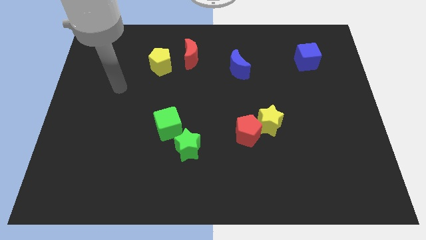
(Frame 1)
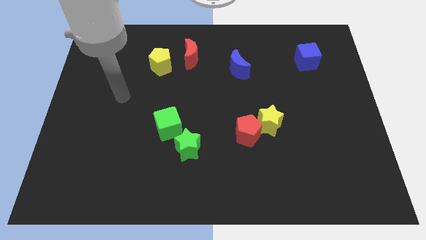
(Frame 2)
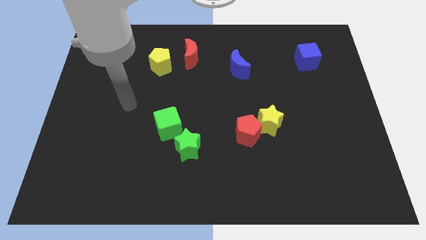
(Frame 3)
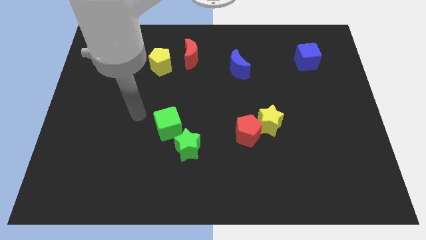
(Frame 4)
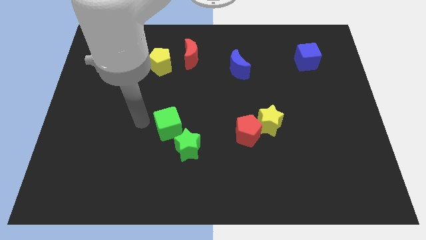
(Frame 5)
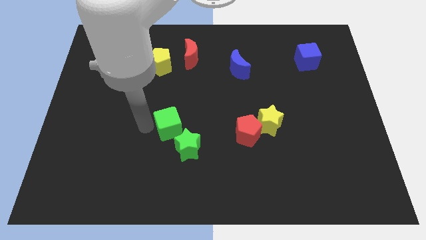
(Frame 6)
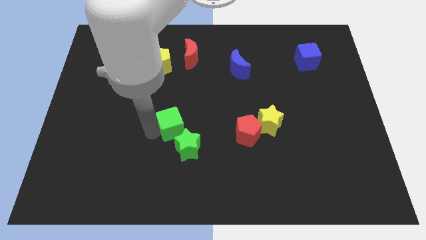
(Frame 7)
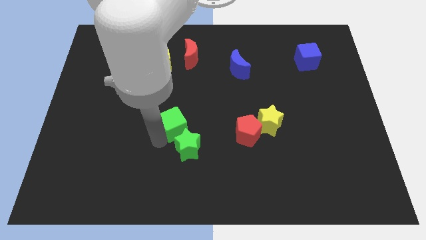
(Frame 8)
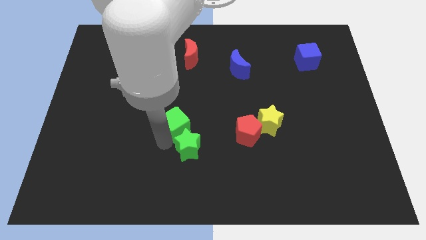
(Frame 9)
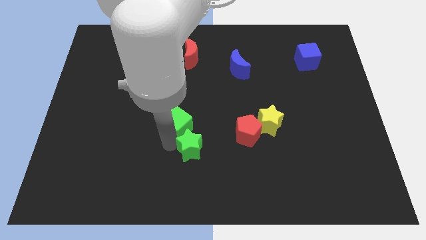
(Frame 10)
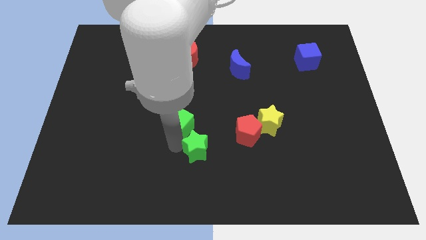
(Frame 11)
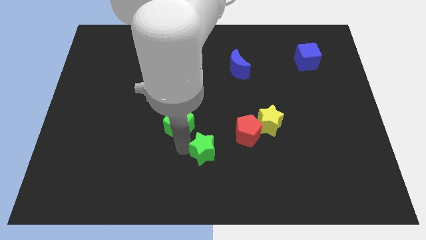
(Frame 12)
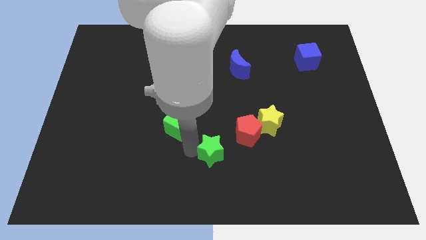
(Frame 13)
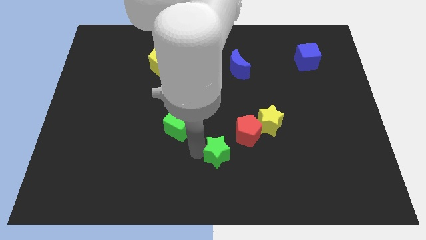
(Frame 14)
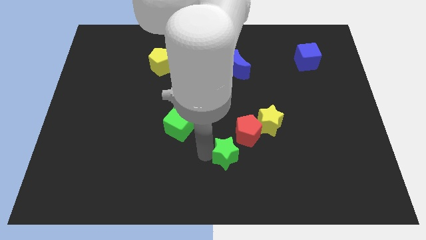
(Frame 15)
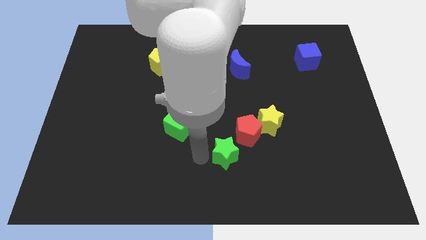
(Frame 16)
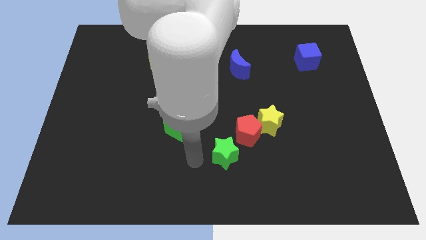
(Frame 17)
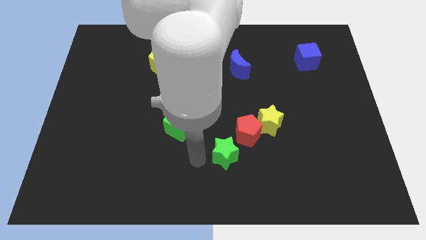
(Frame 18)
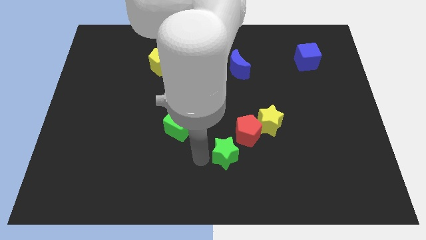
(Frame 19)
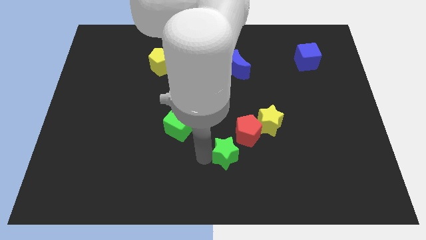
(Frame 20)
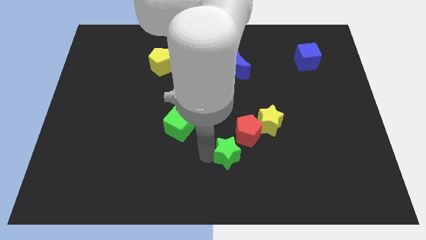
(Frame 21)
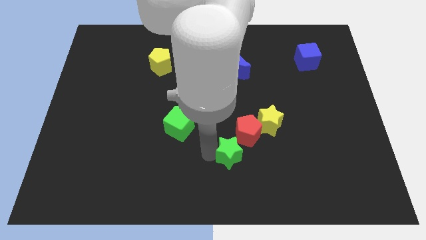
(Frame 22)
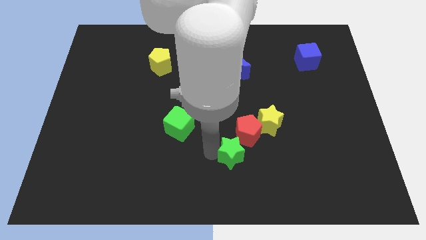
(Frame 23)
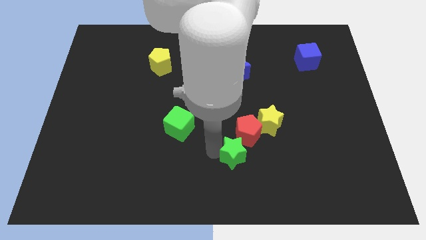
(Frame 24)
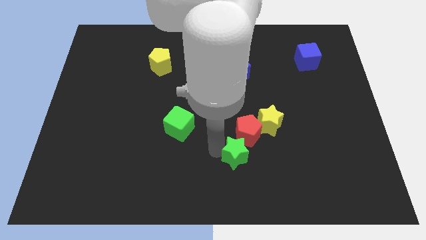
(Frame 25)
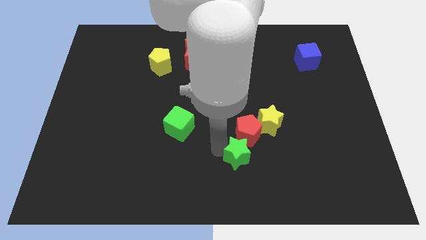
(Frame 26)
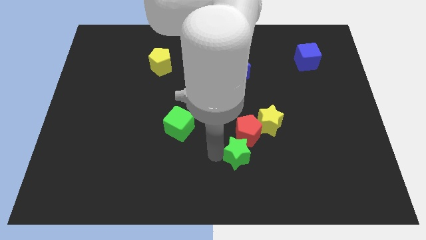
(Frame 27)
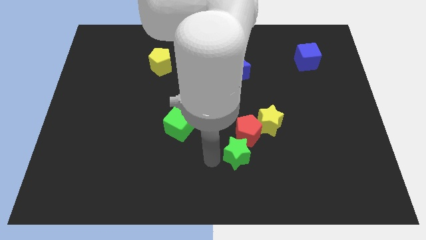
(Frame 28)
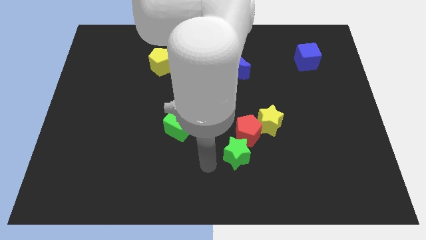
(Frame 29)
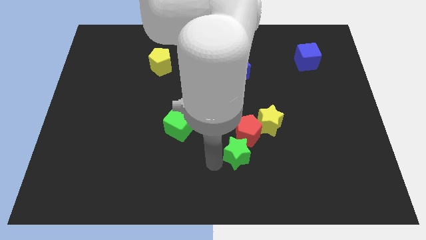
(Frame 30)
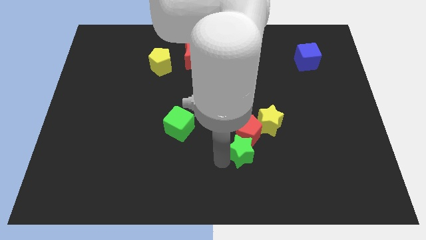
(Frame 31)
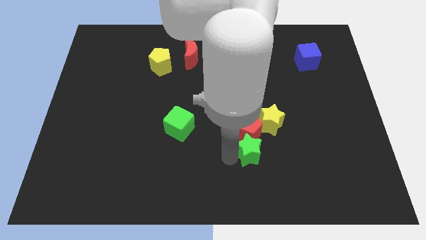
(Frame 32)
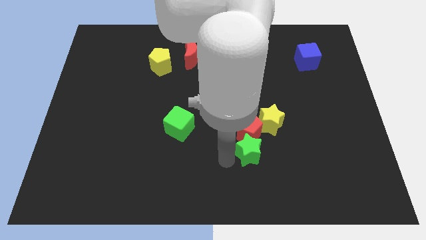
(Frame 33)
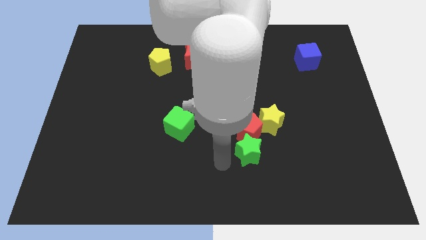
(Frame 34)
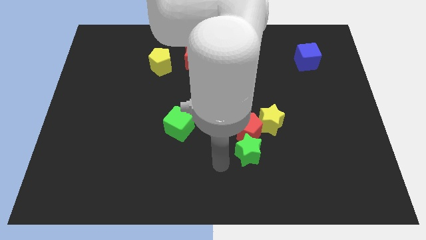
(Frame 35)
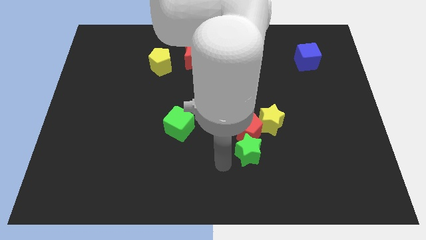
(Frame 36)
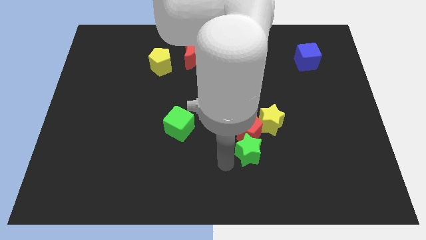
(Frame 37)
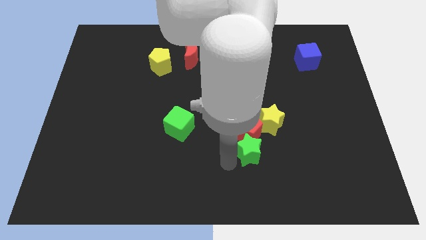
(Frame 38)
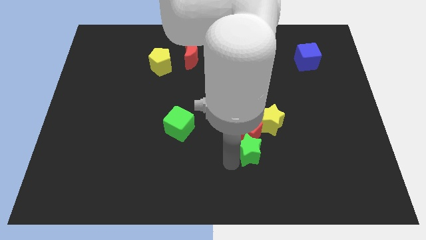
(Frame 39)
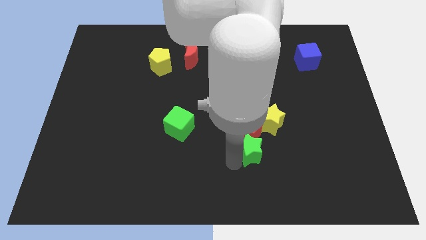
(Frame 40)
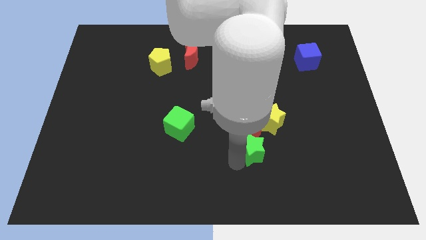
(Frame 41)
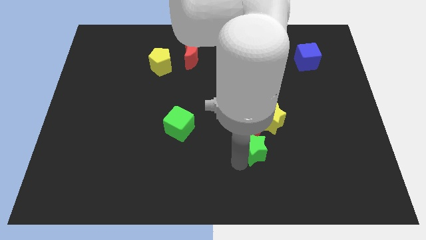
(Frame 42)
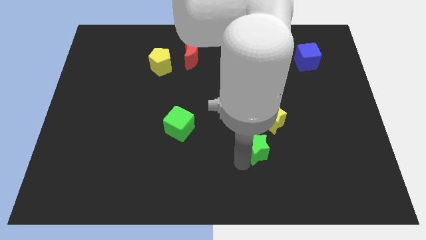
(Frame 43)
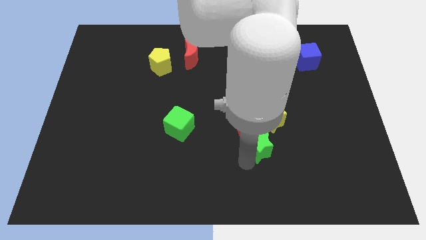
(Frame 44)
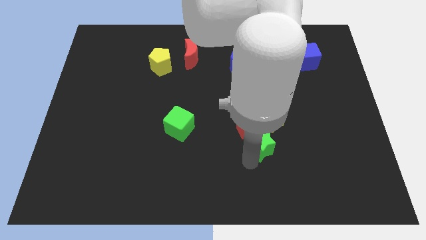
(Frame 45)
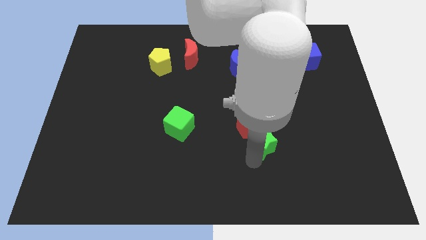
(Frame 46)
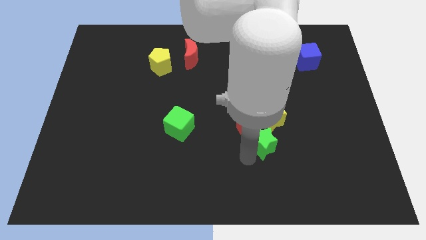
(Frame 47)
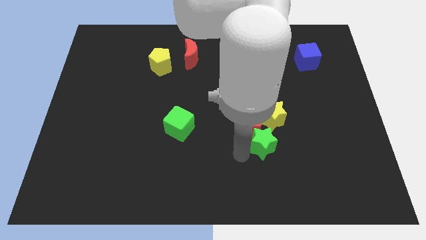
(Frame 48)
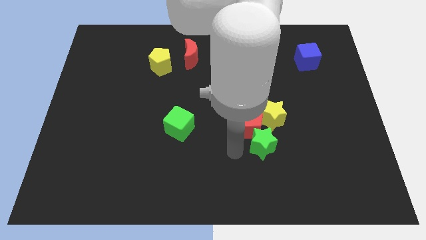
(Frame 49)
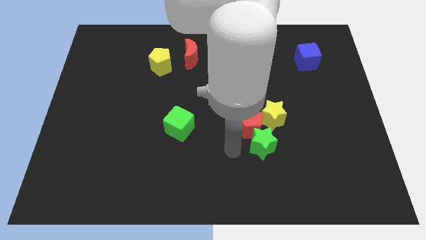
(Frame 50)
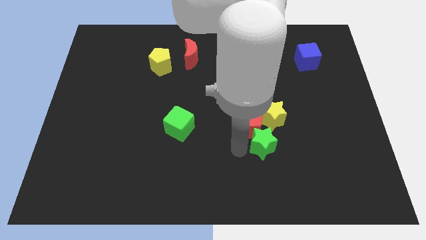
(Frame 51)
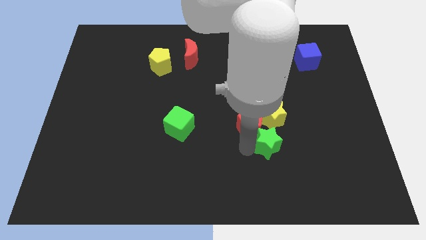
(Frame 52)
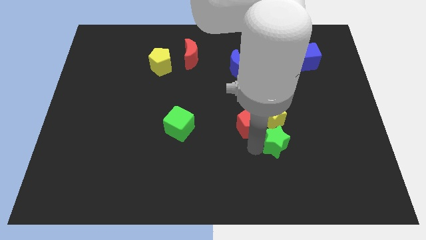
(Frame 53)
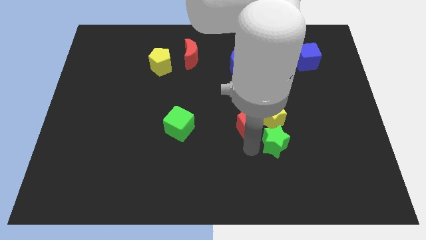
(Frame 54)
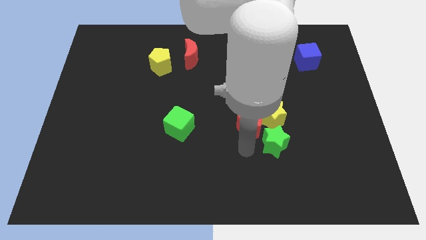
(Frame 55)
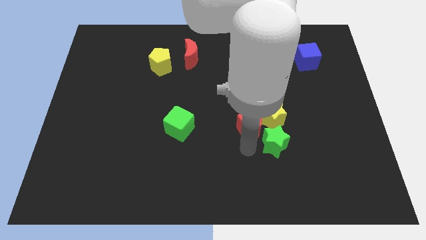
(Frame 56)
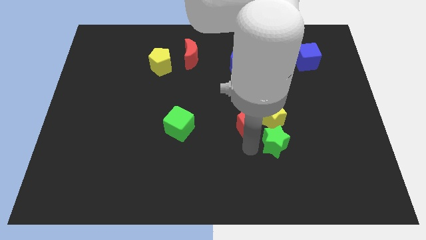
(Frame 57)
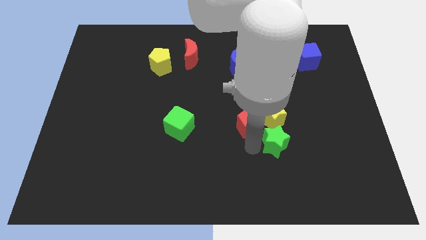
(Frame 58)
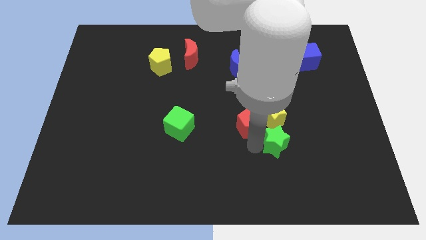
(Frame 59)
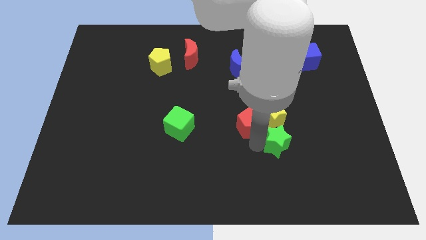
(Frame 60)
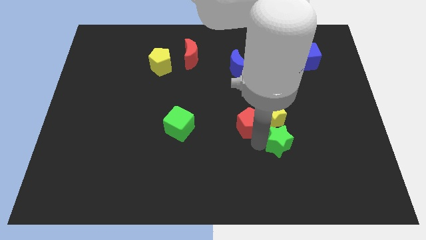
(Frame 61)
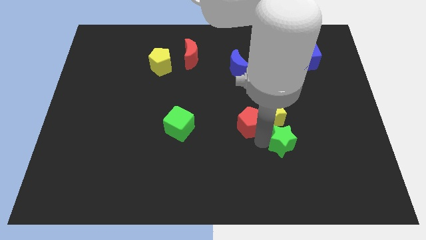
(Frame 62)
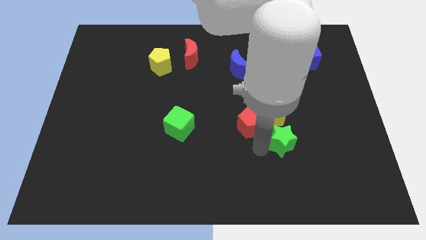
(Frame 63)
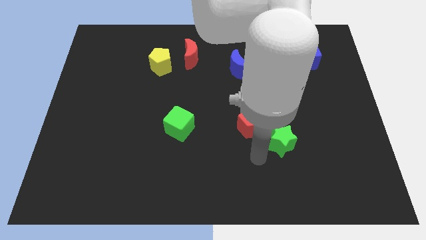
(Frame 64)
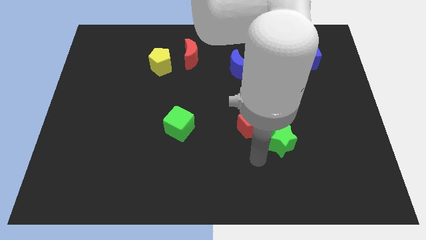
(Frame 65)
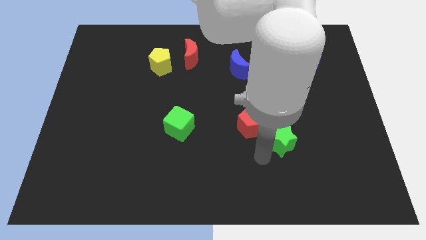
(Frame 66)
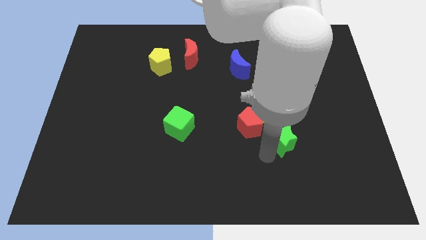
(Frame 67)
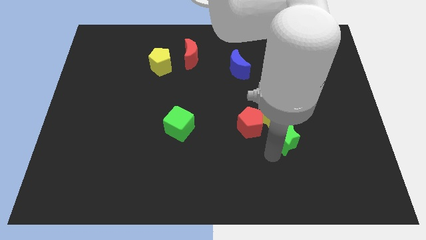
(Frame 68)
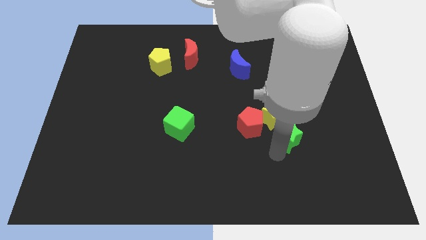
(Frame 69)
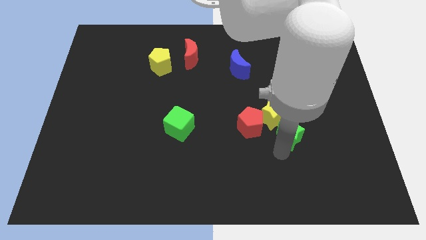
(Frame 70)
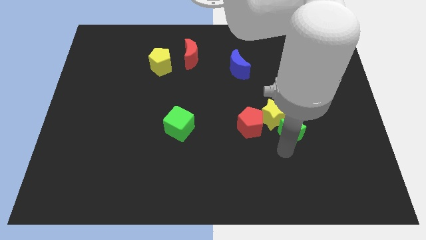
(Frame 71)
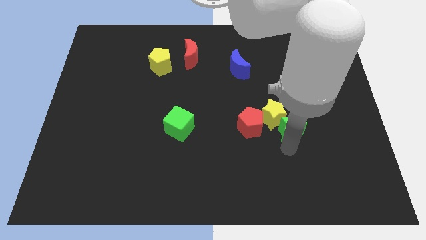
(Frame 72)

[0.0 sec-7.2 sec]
push the green star just right of the yellow star
